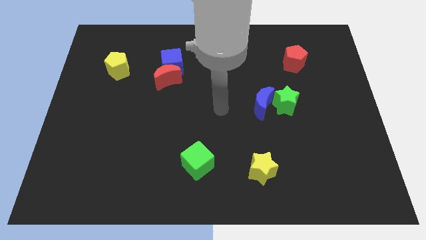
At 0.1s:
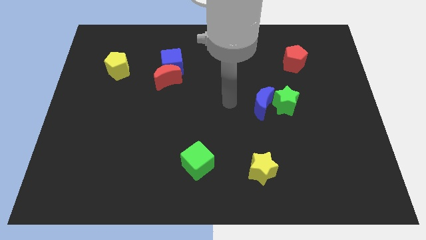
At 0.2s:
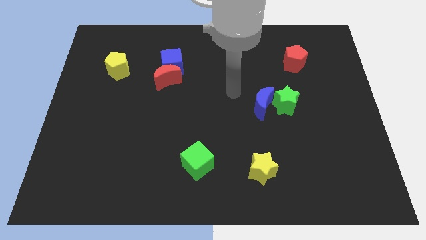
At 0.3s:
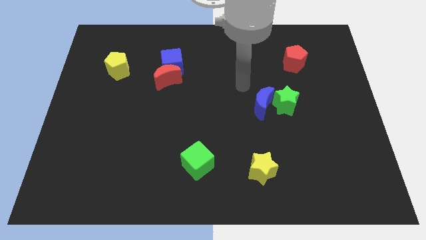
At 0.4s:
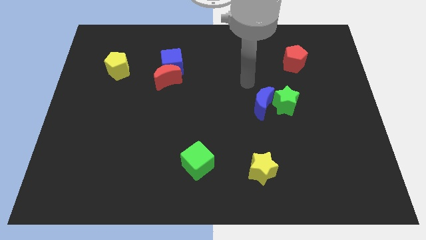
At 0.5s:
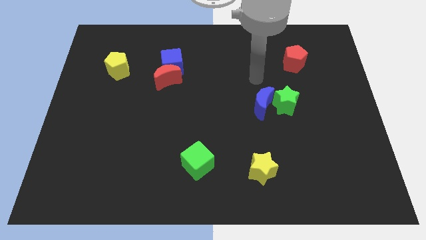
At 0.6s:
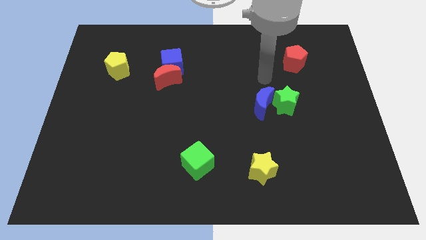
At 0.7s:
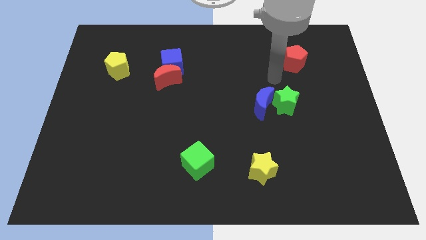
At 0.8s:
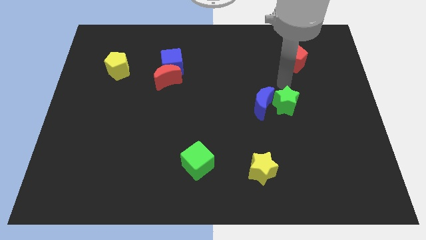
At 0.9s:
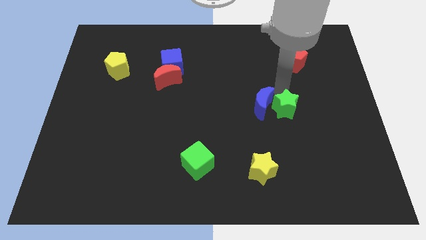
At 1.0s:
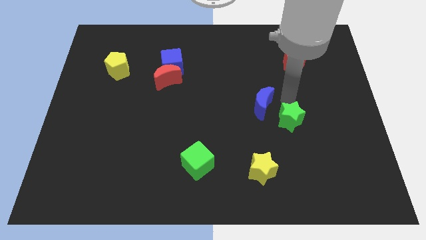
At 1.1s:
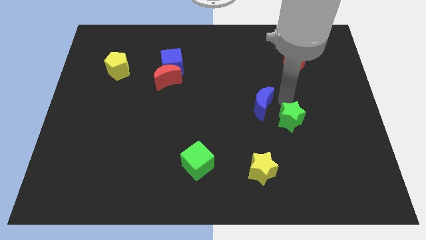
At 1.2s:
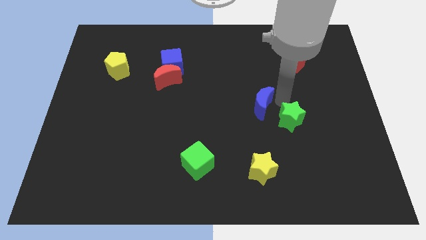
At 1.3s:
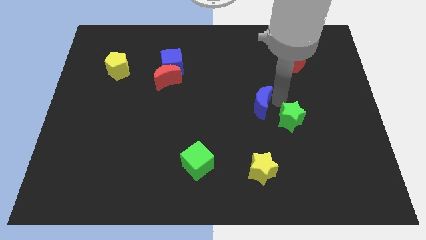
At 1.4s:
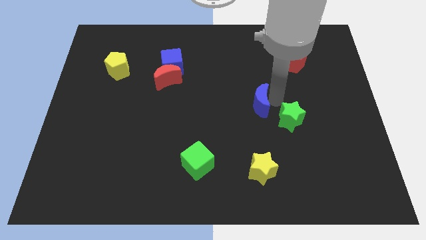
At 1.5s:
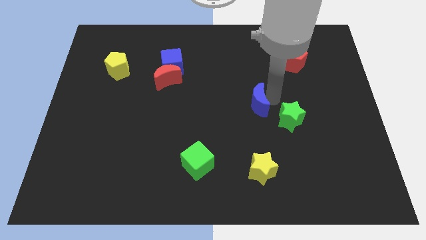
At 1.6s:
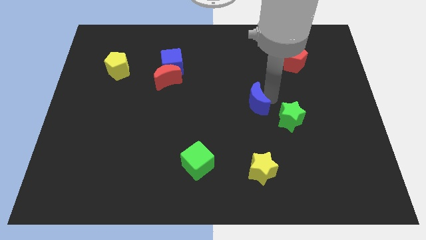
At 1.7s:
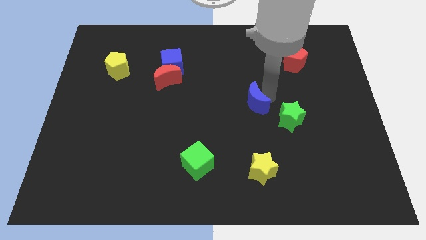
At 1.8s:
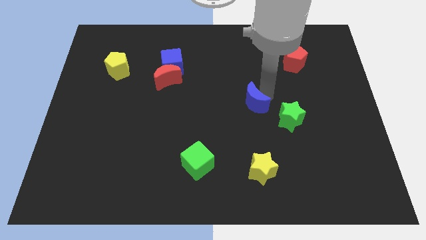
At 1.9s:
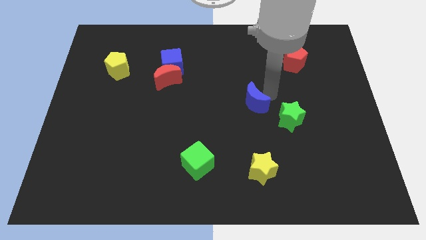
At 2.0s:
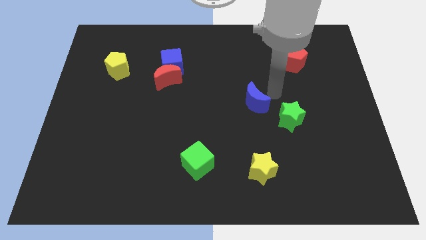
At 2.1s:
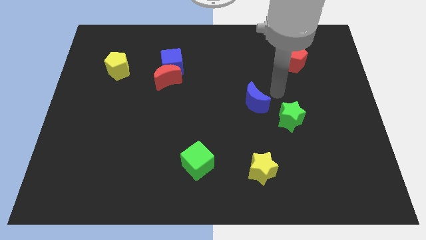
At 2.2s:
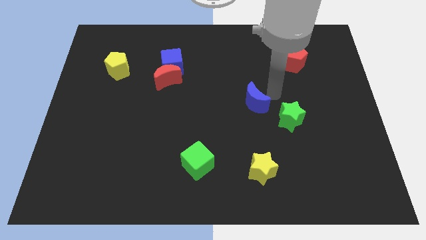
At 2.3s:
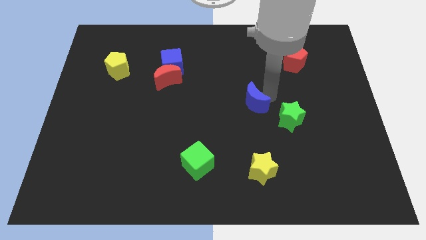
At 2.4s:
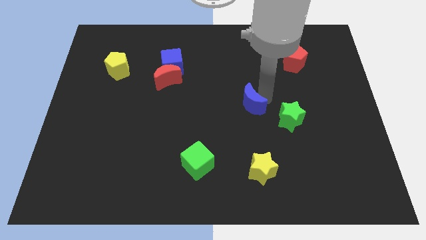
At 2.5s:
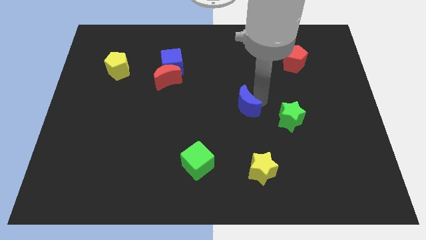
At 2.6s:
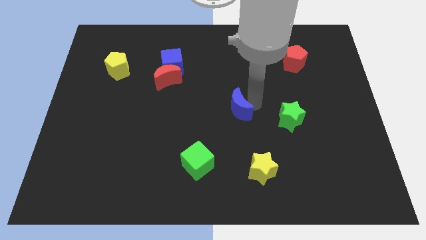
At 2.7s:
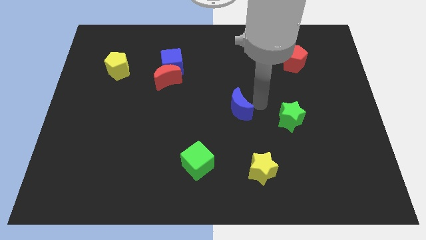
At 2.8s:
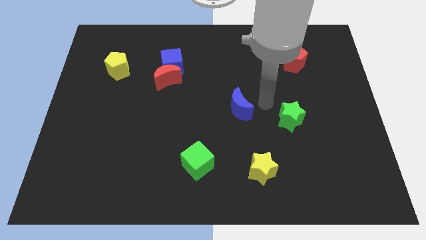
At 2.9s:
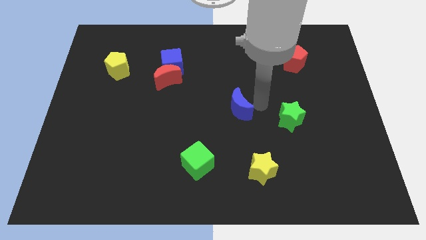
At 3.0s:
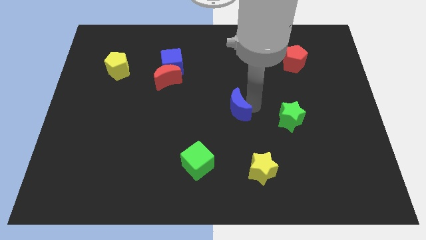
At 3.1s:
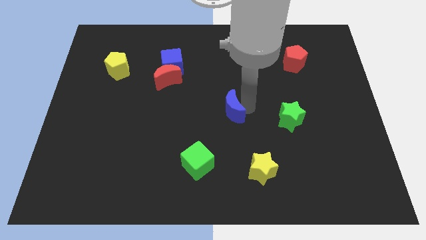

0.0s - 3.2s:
slightly move the blue moon to the left

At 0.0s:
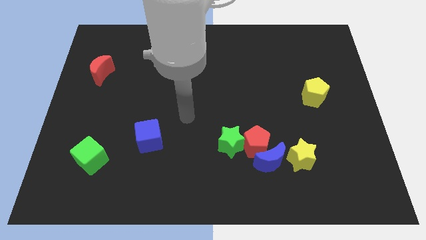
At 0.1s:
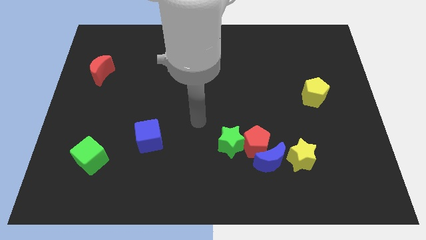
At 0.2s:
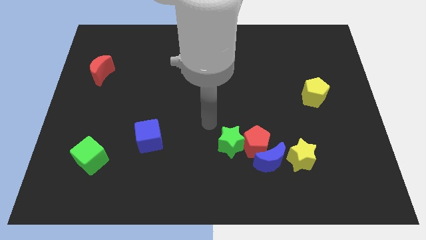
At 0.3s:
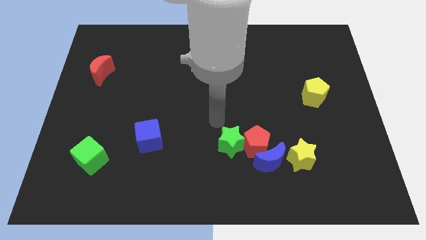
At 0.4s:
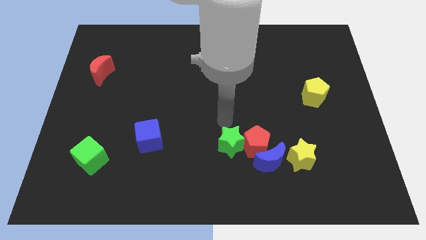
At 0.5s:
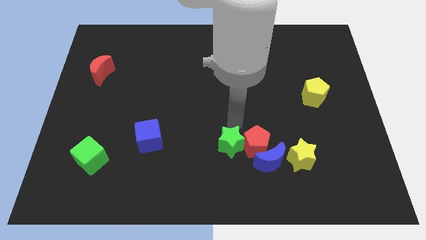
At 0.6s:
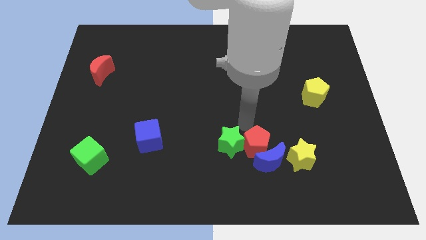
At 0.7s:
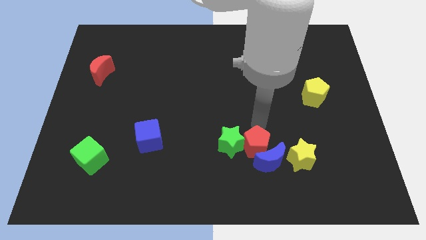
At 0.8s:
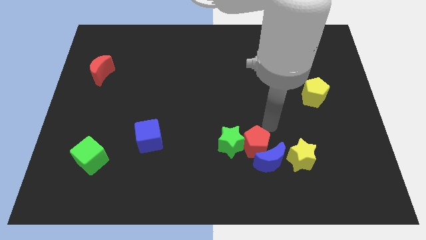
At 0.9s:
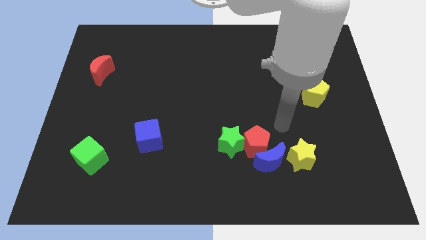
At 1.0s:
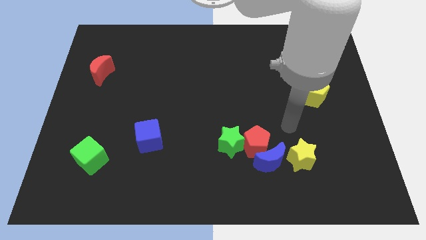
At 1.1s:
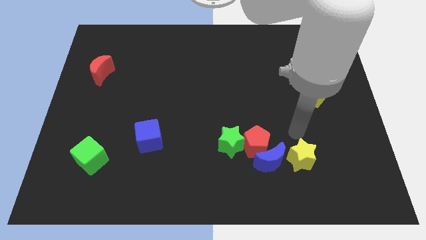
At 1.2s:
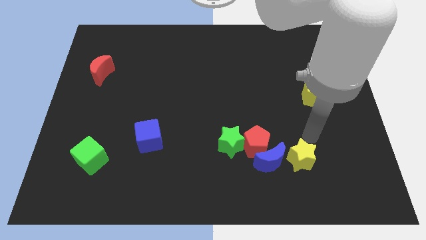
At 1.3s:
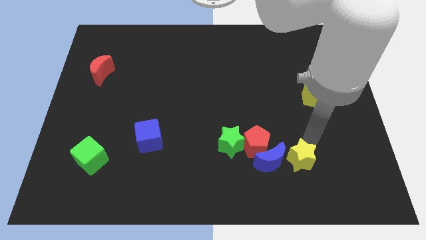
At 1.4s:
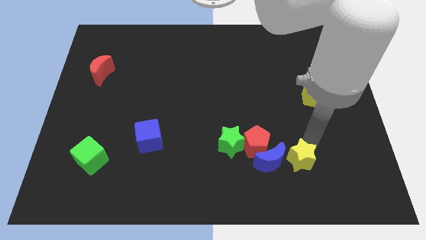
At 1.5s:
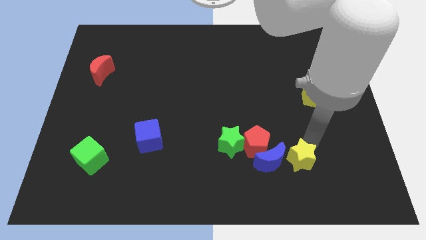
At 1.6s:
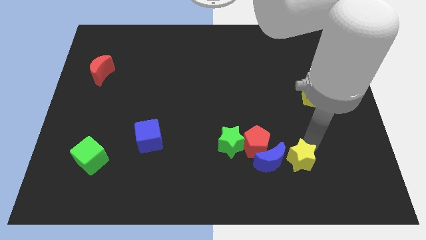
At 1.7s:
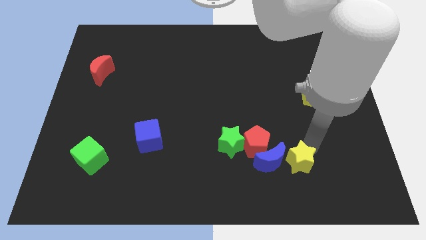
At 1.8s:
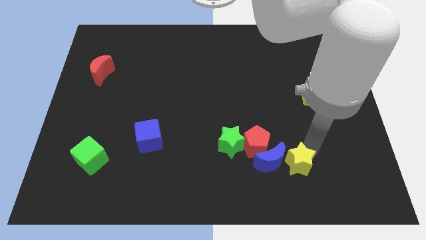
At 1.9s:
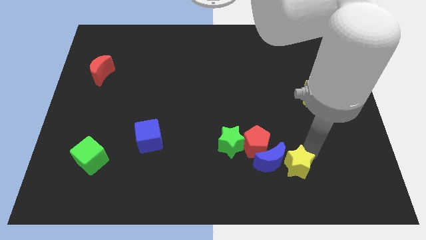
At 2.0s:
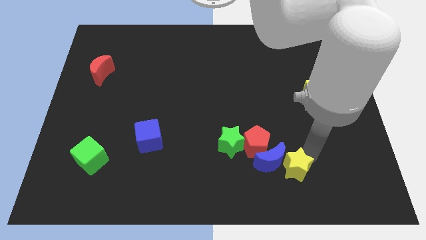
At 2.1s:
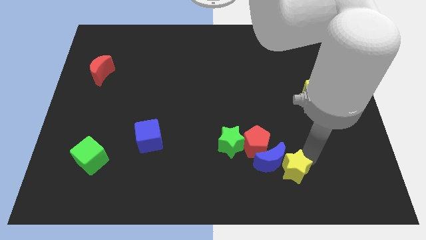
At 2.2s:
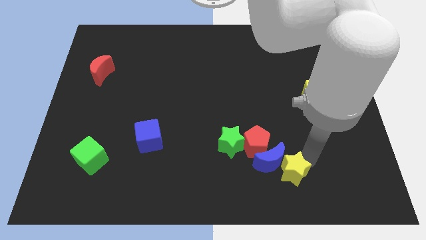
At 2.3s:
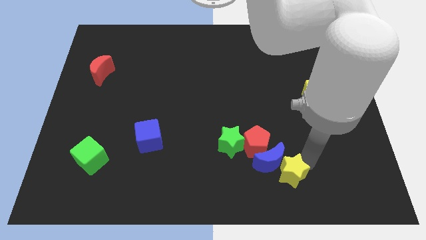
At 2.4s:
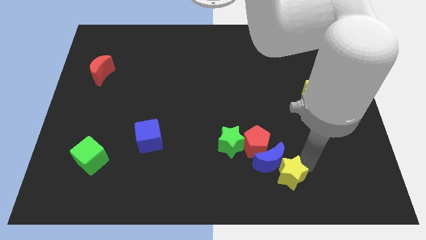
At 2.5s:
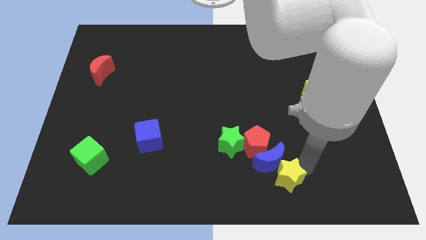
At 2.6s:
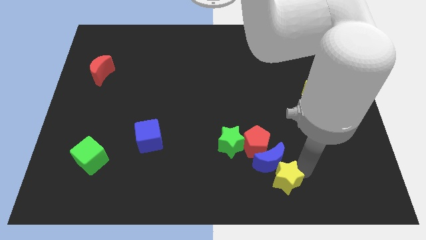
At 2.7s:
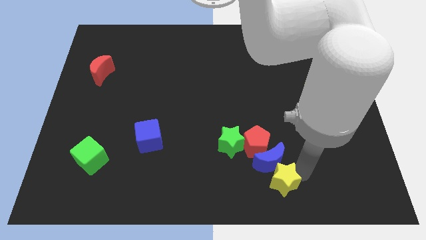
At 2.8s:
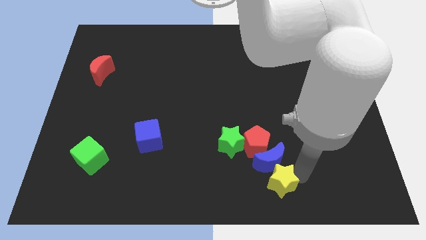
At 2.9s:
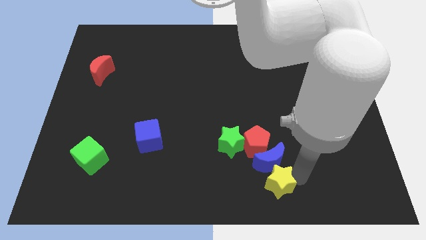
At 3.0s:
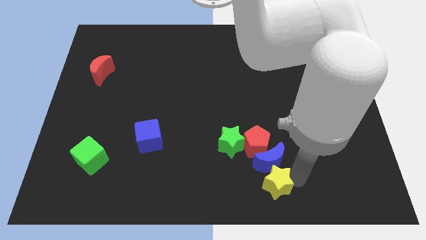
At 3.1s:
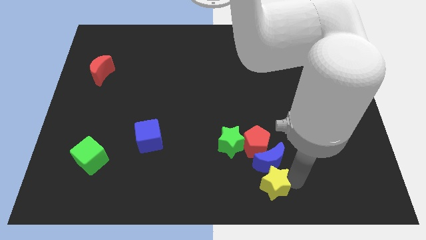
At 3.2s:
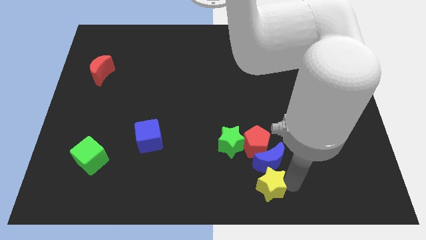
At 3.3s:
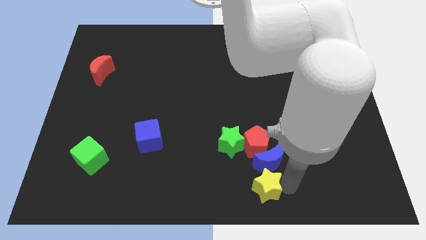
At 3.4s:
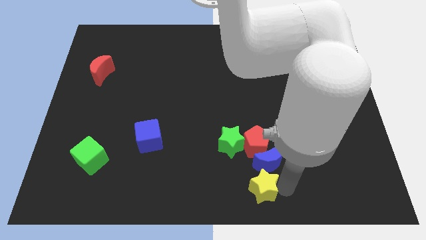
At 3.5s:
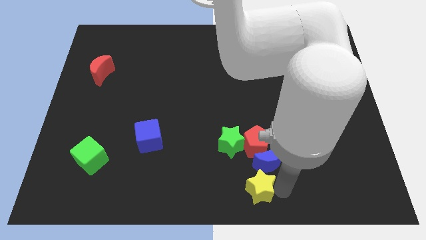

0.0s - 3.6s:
slightly push the yellow star to the left

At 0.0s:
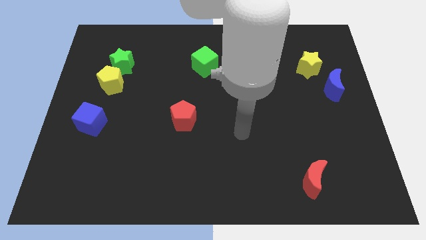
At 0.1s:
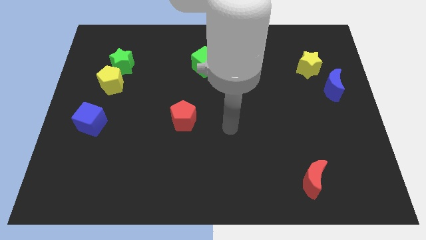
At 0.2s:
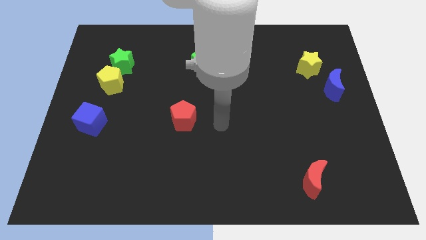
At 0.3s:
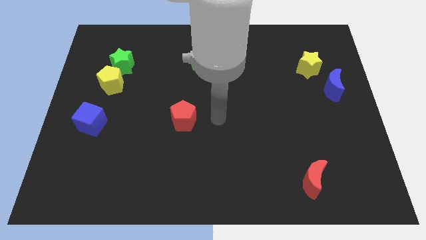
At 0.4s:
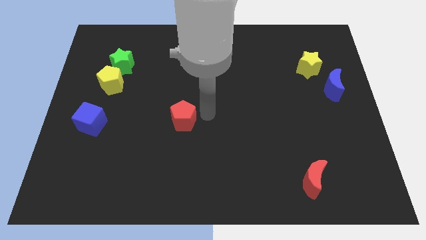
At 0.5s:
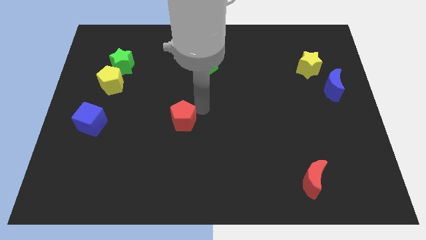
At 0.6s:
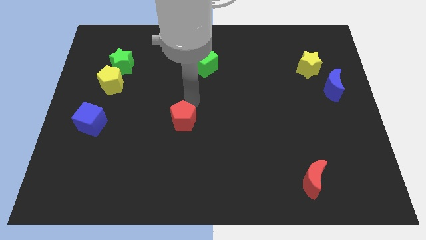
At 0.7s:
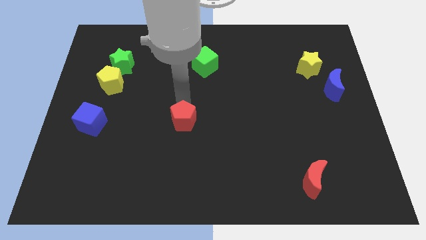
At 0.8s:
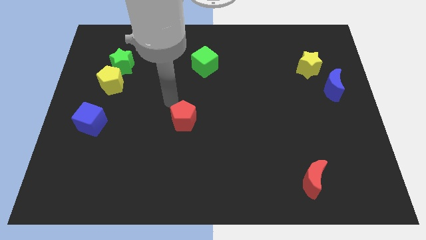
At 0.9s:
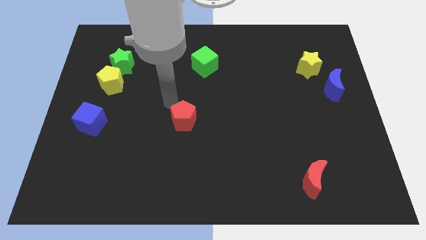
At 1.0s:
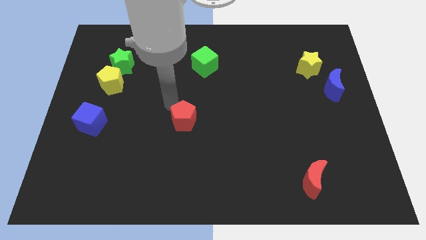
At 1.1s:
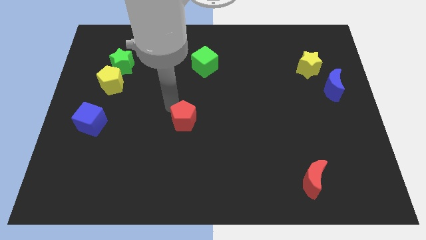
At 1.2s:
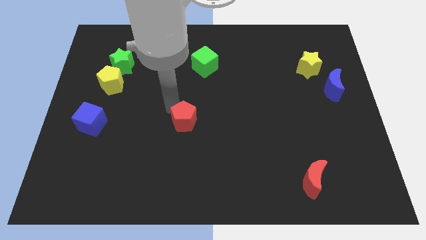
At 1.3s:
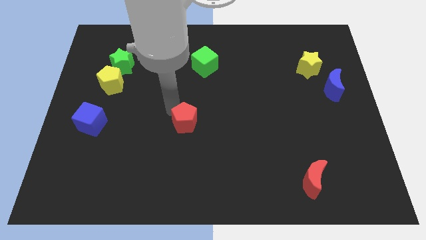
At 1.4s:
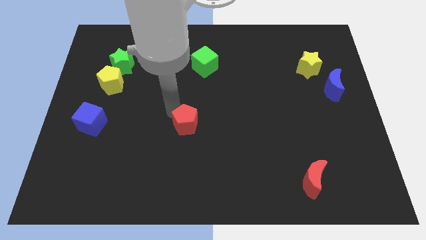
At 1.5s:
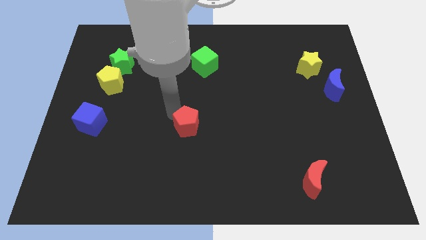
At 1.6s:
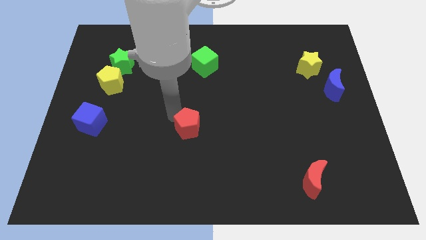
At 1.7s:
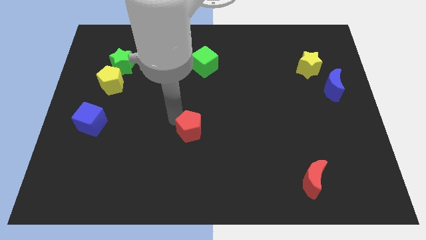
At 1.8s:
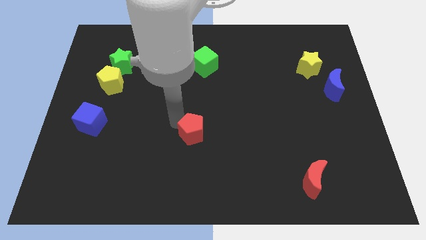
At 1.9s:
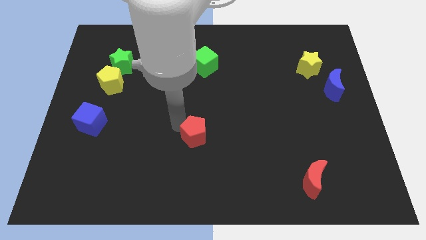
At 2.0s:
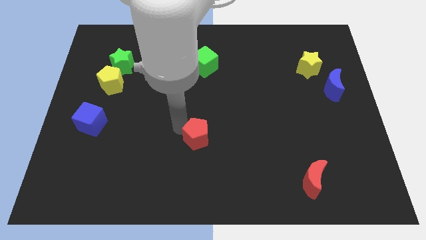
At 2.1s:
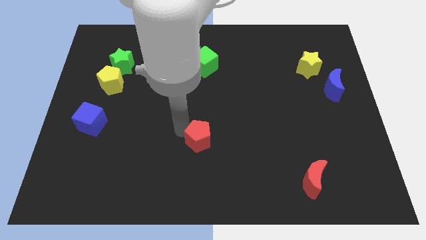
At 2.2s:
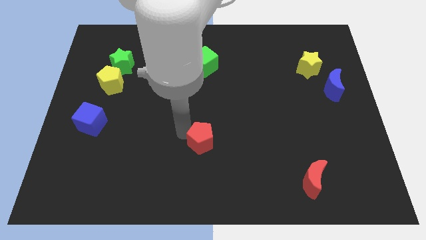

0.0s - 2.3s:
slightly push the red pentagon downwards and right
